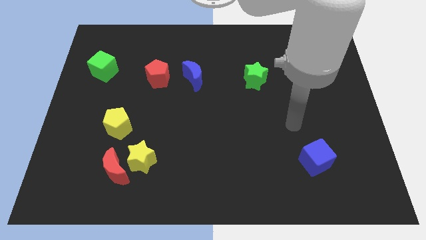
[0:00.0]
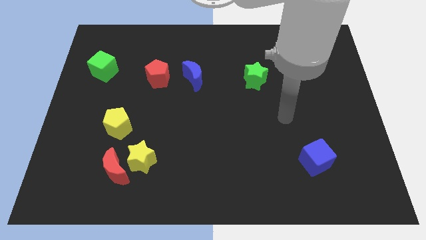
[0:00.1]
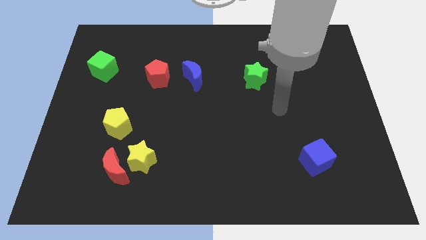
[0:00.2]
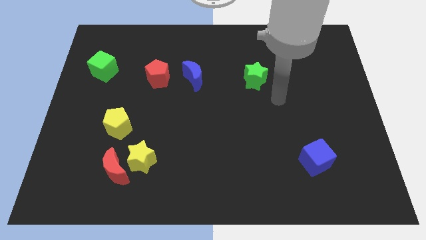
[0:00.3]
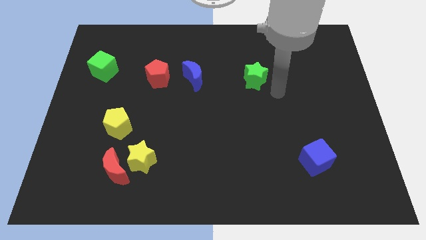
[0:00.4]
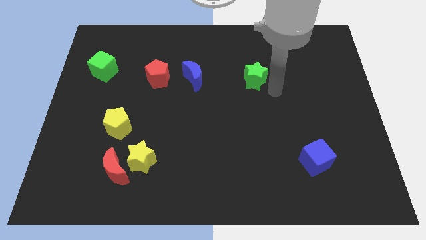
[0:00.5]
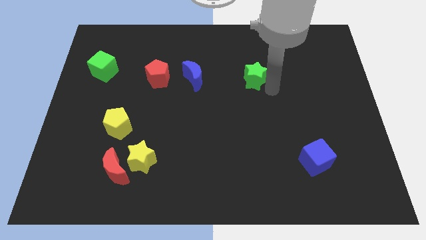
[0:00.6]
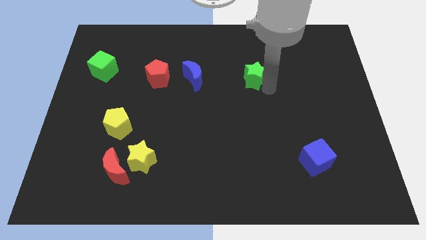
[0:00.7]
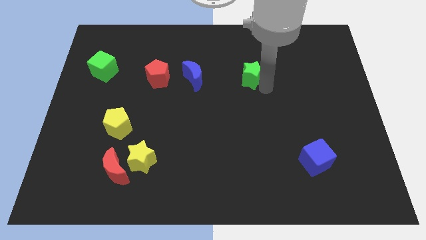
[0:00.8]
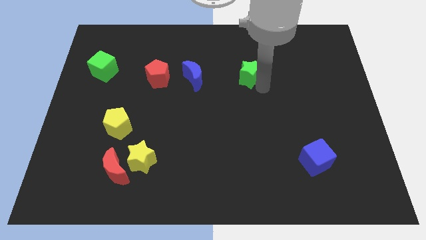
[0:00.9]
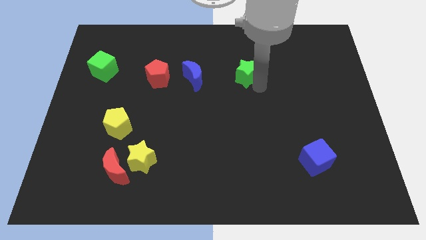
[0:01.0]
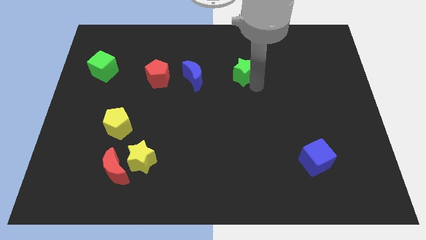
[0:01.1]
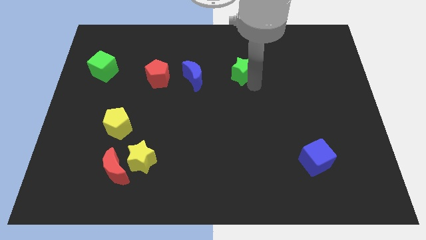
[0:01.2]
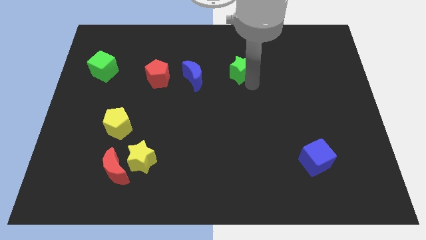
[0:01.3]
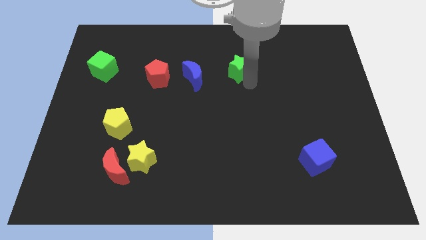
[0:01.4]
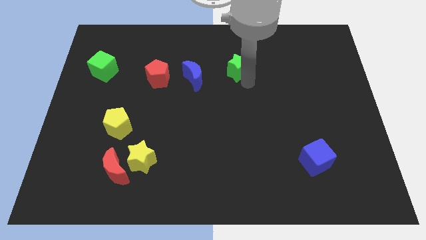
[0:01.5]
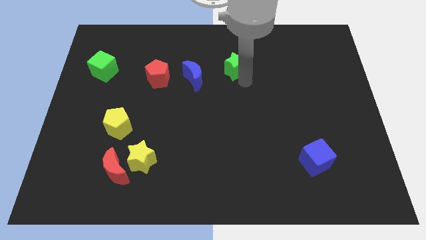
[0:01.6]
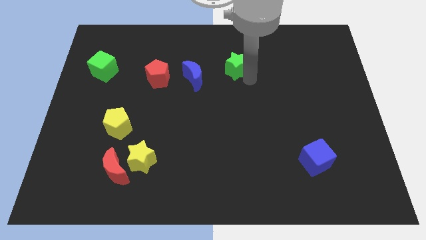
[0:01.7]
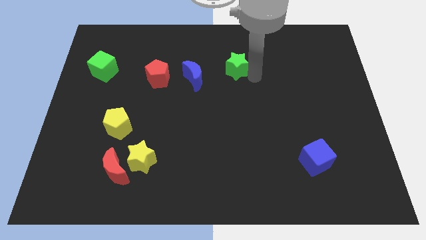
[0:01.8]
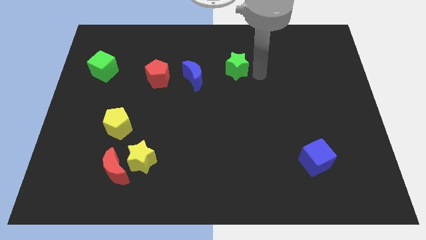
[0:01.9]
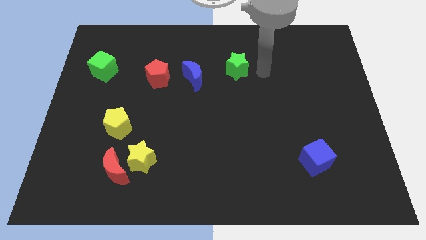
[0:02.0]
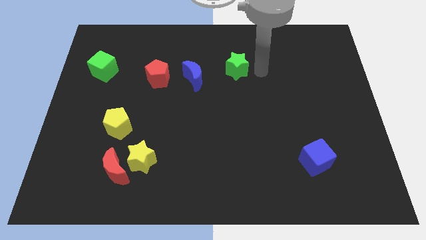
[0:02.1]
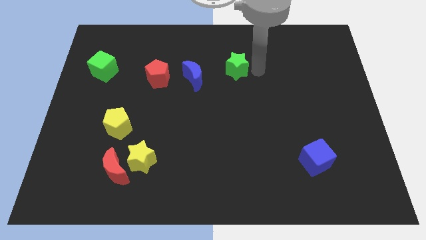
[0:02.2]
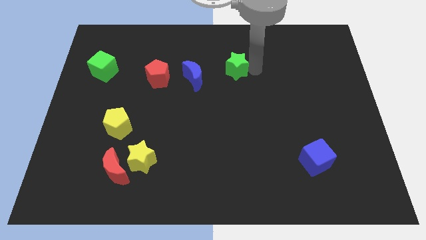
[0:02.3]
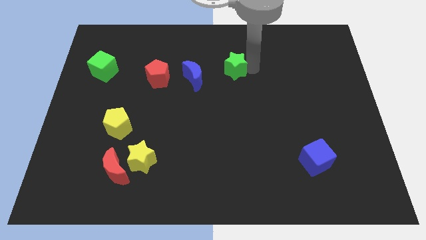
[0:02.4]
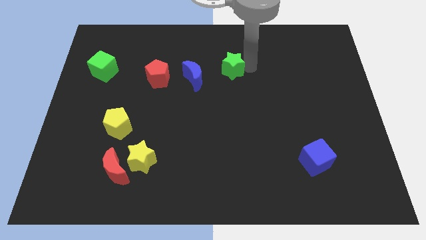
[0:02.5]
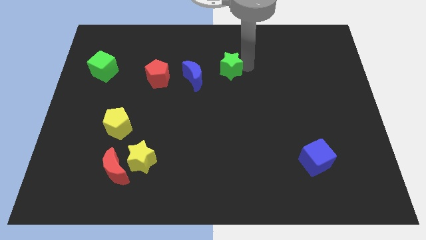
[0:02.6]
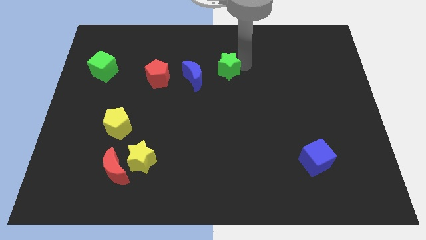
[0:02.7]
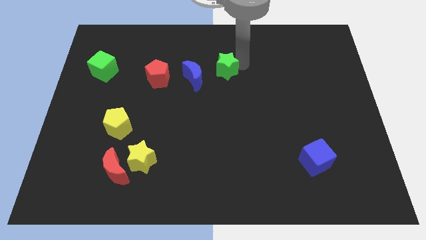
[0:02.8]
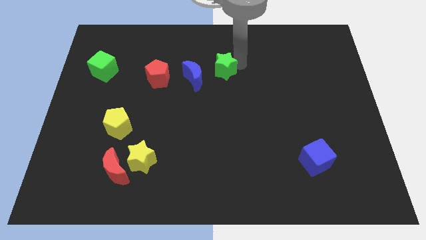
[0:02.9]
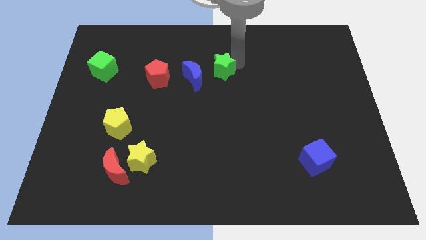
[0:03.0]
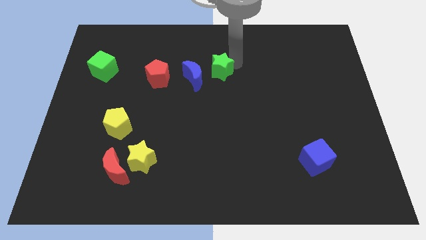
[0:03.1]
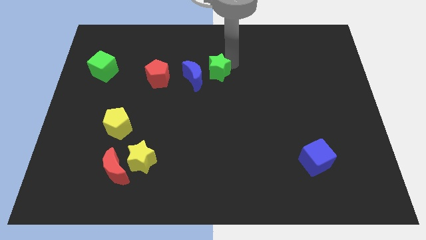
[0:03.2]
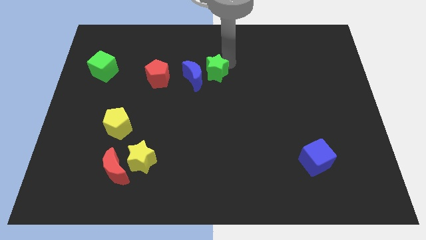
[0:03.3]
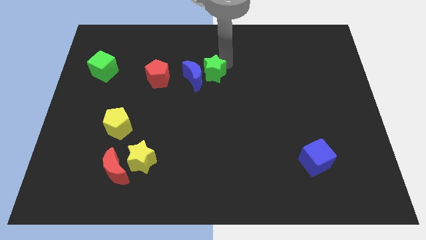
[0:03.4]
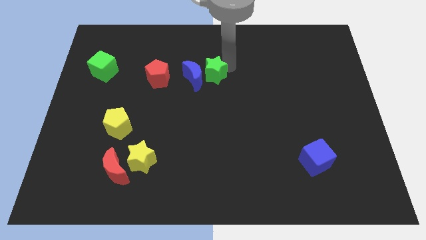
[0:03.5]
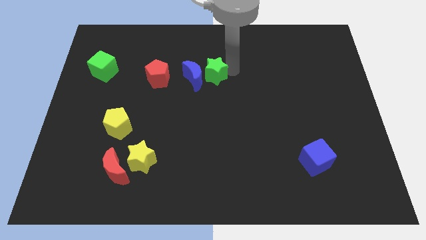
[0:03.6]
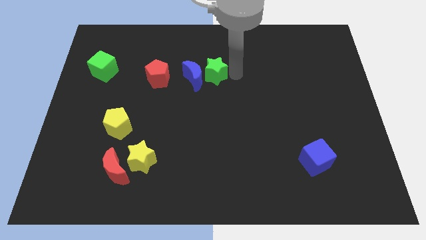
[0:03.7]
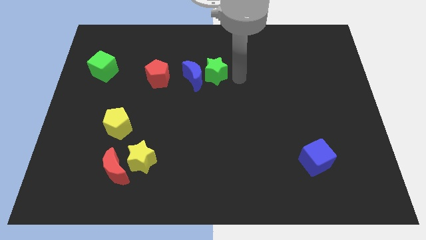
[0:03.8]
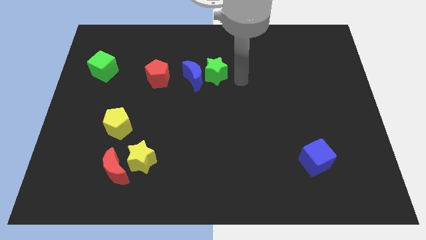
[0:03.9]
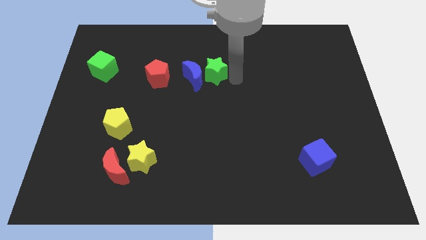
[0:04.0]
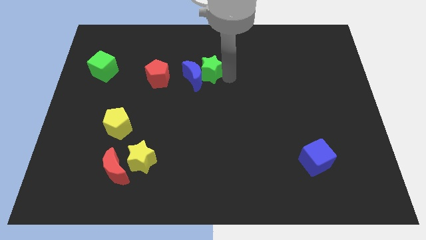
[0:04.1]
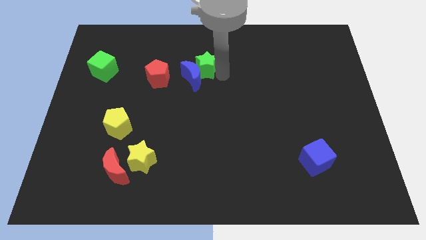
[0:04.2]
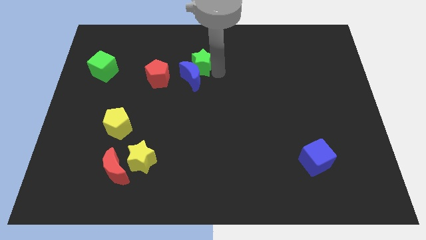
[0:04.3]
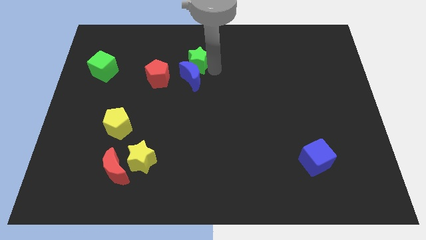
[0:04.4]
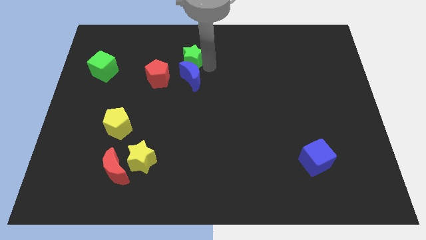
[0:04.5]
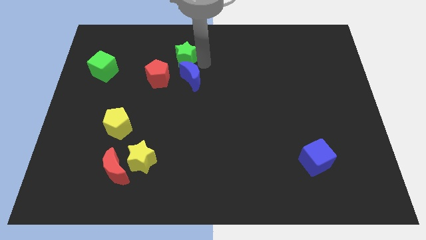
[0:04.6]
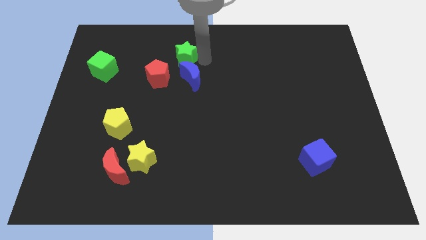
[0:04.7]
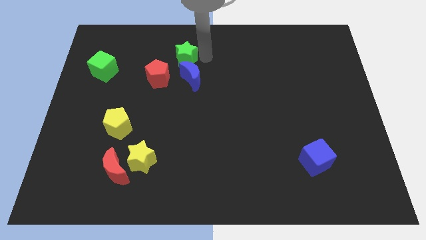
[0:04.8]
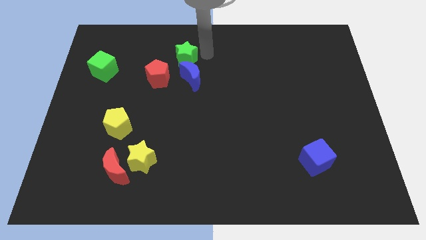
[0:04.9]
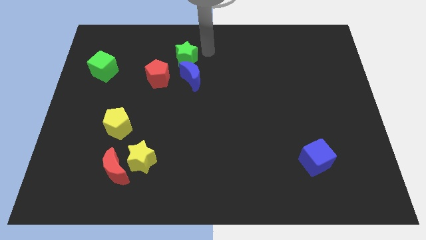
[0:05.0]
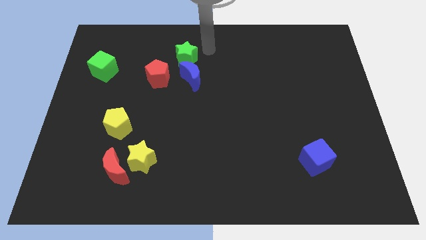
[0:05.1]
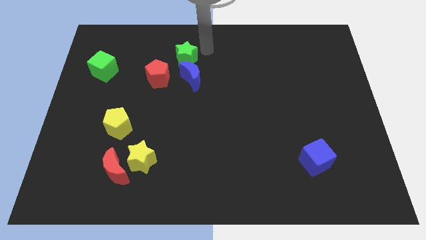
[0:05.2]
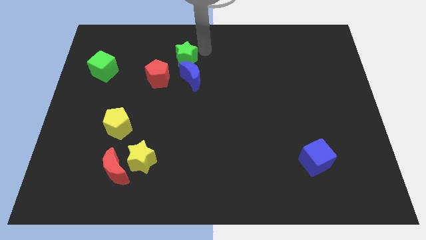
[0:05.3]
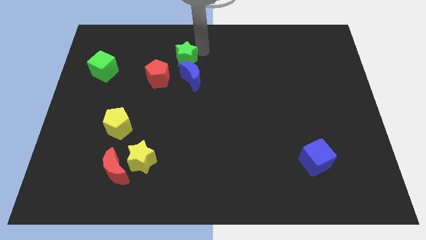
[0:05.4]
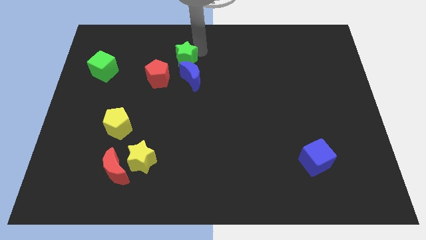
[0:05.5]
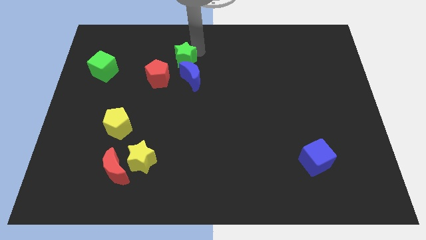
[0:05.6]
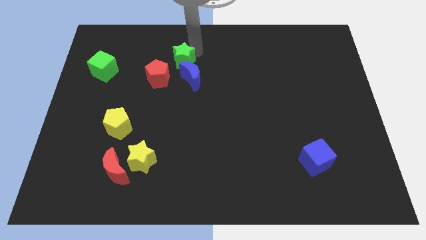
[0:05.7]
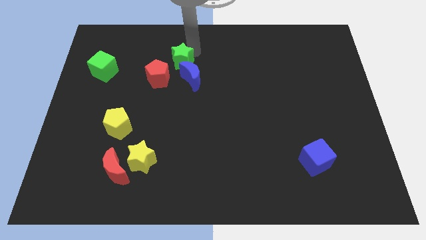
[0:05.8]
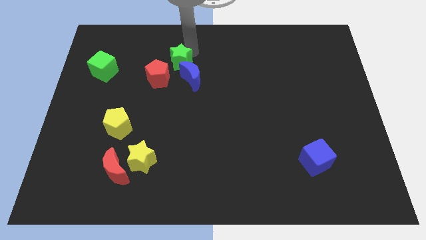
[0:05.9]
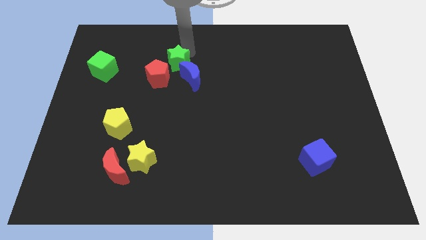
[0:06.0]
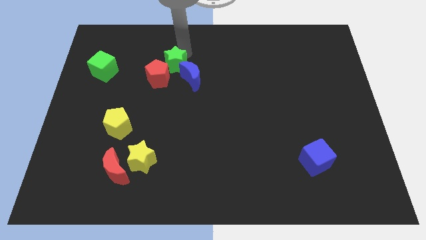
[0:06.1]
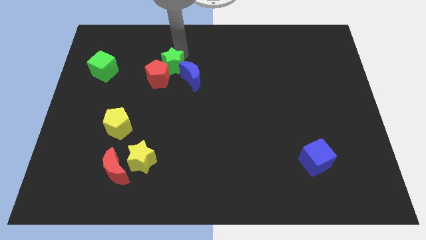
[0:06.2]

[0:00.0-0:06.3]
move the green star to the left

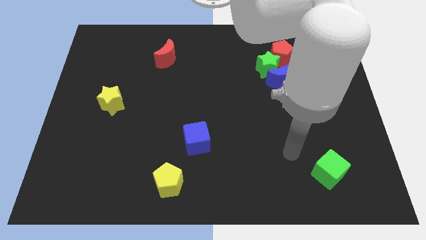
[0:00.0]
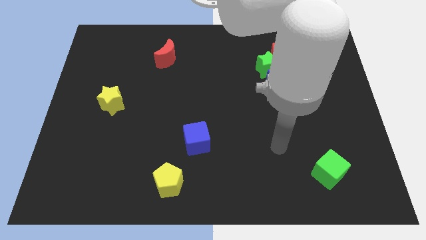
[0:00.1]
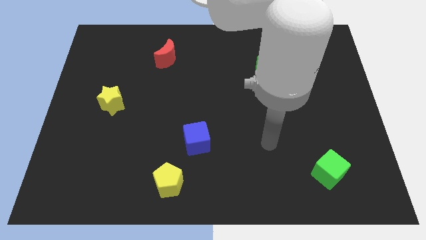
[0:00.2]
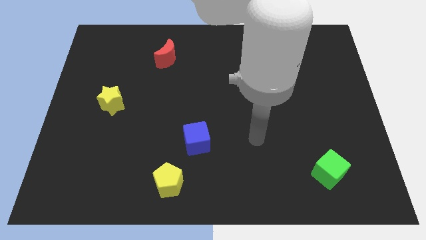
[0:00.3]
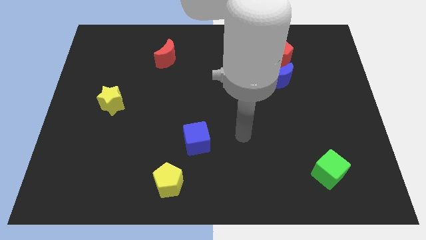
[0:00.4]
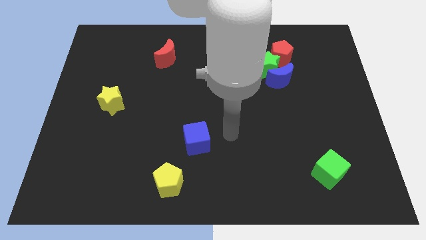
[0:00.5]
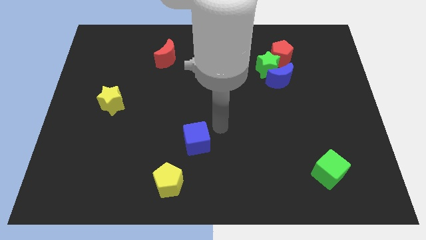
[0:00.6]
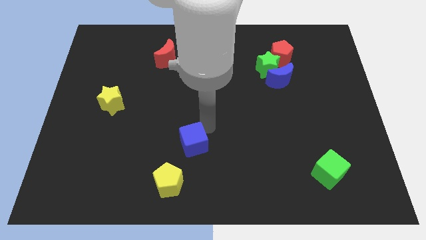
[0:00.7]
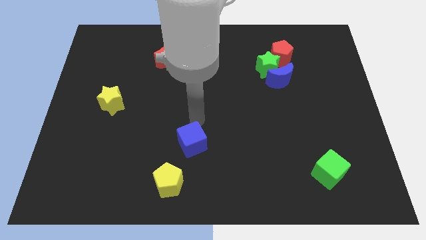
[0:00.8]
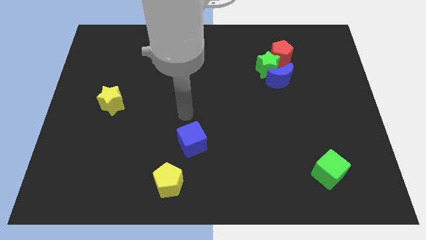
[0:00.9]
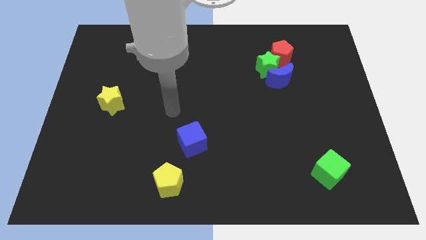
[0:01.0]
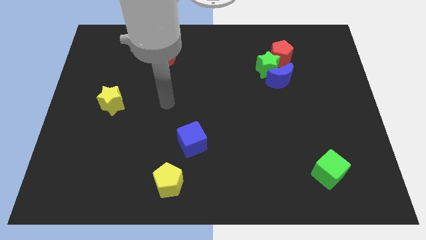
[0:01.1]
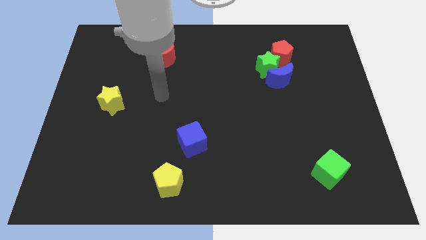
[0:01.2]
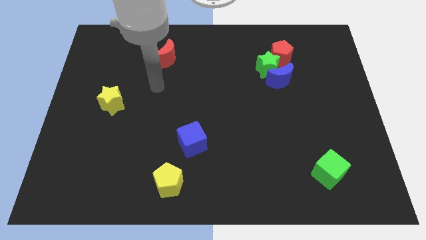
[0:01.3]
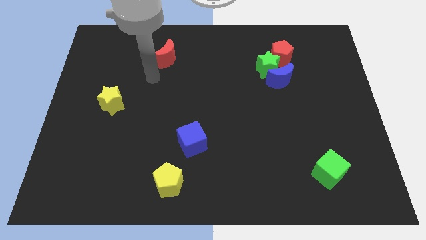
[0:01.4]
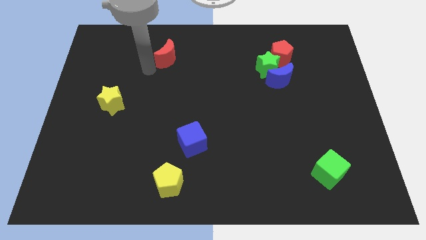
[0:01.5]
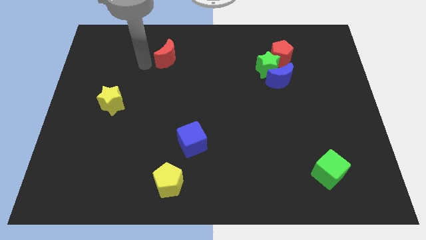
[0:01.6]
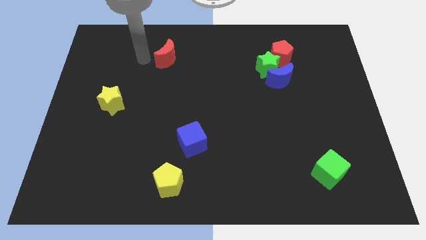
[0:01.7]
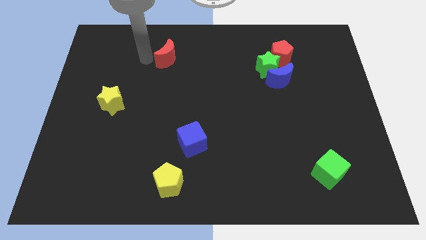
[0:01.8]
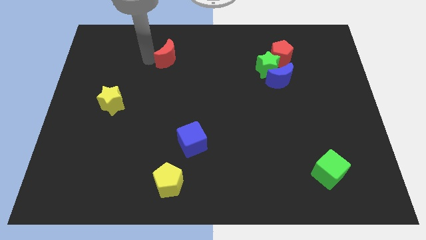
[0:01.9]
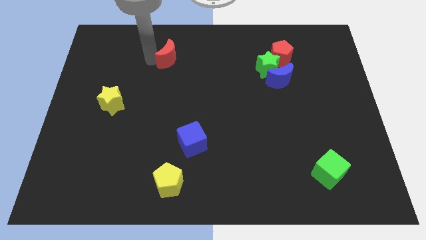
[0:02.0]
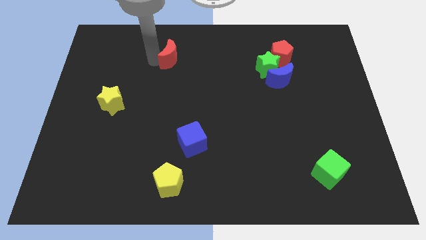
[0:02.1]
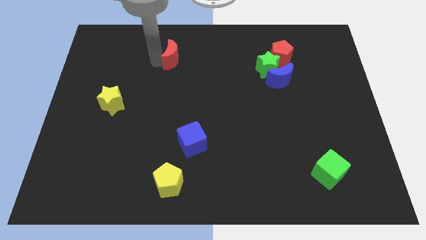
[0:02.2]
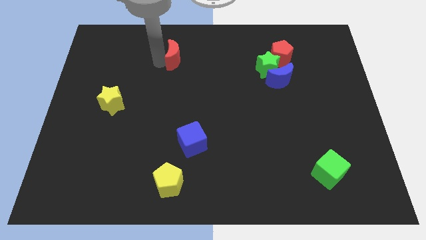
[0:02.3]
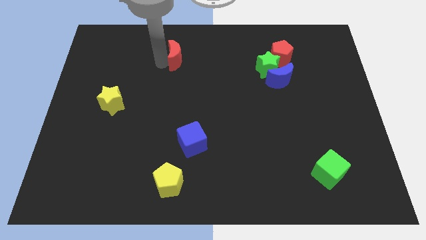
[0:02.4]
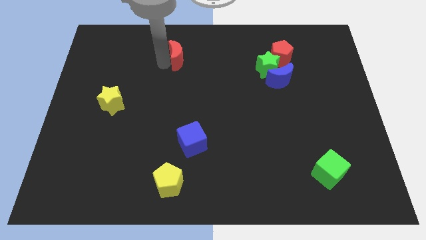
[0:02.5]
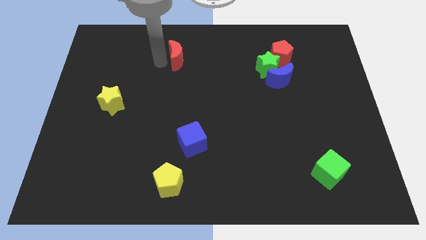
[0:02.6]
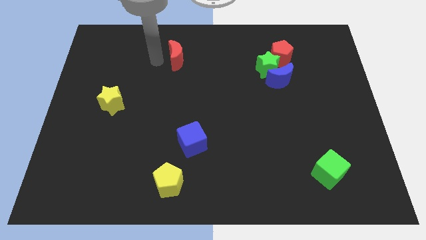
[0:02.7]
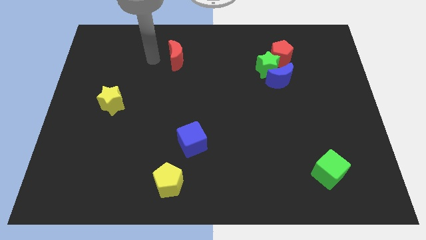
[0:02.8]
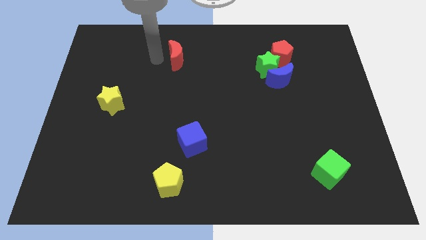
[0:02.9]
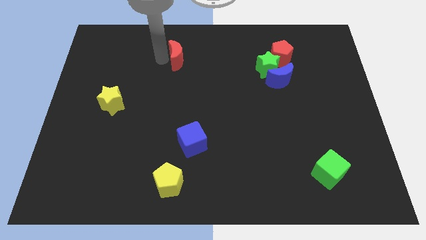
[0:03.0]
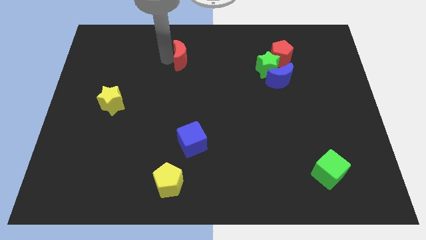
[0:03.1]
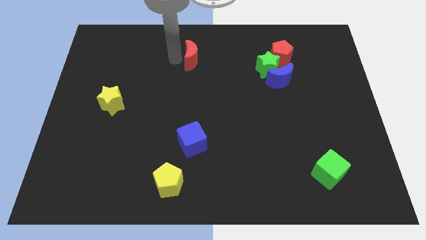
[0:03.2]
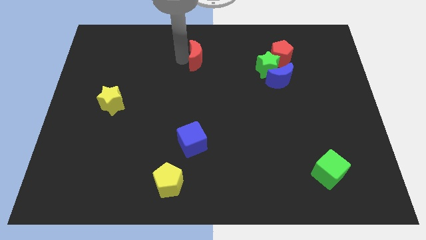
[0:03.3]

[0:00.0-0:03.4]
slide the red moon to the right slightly
